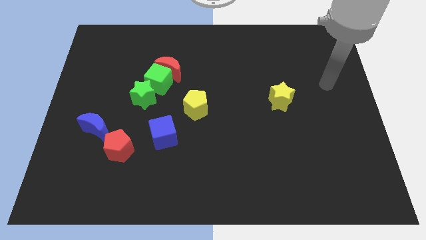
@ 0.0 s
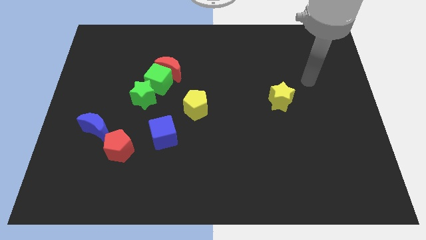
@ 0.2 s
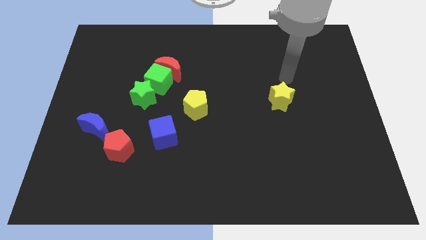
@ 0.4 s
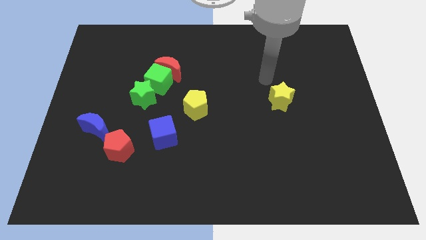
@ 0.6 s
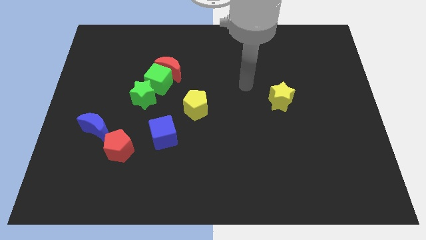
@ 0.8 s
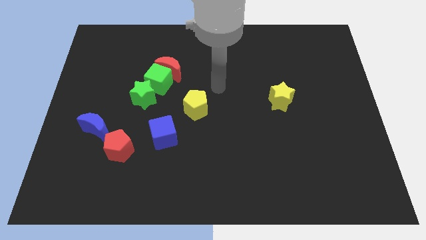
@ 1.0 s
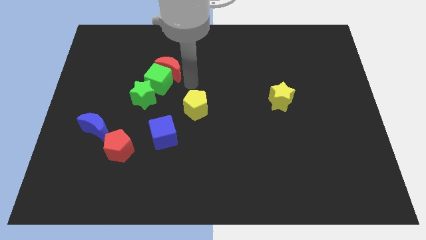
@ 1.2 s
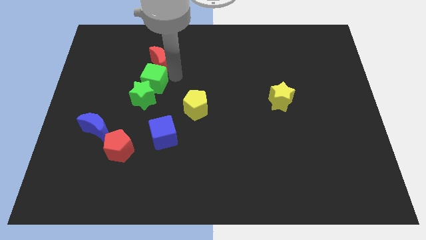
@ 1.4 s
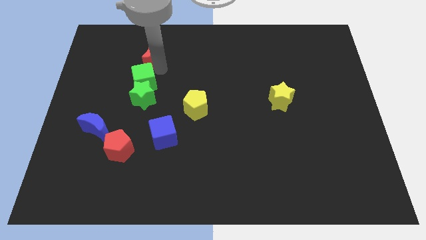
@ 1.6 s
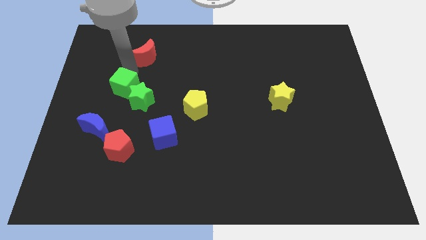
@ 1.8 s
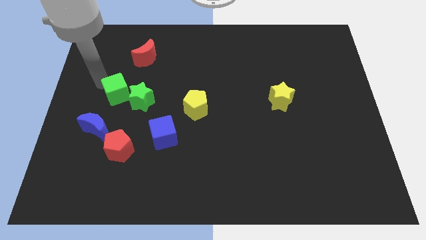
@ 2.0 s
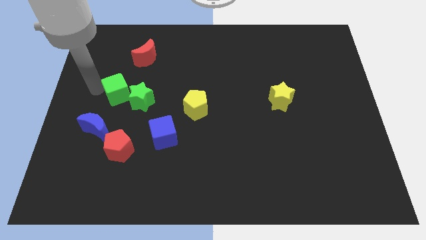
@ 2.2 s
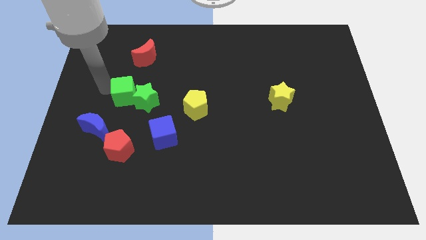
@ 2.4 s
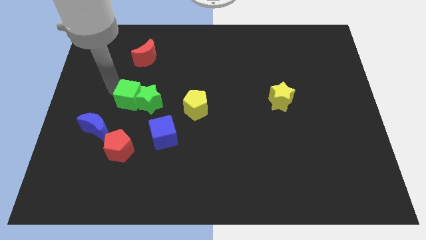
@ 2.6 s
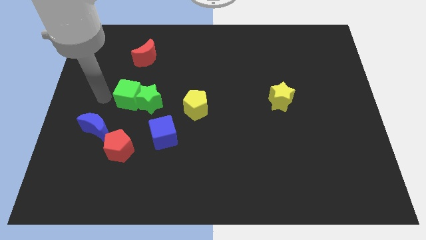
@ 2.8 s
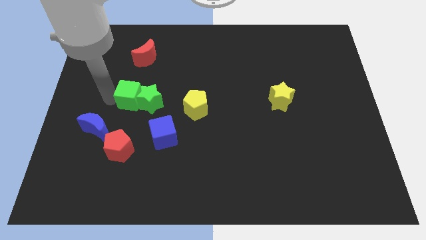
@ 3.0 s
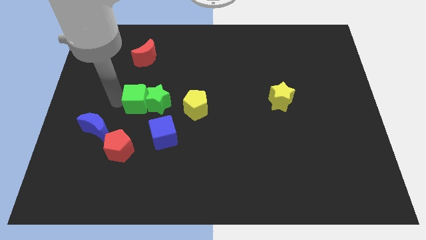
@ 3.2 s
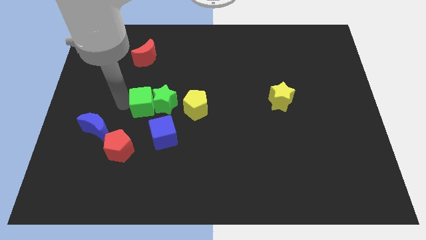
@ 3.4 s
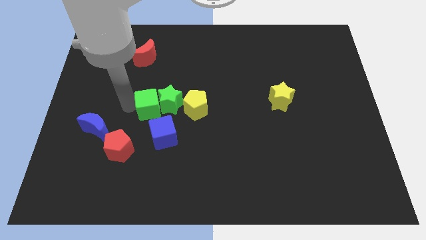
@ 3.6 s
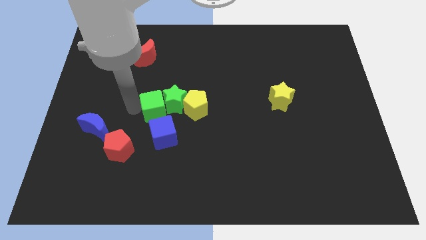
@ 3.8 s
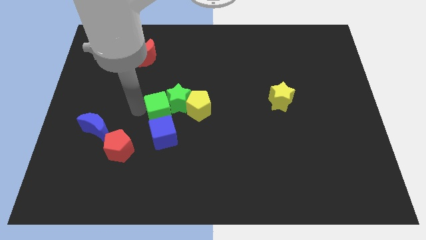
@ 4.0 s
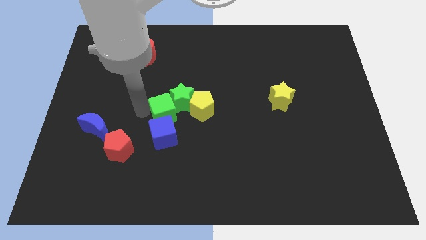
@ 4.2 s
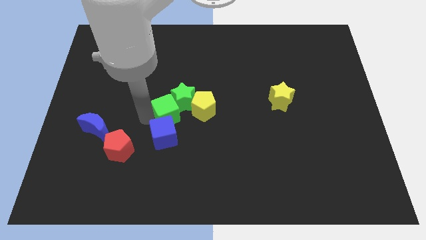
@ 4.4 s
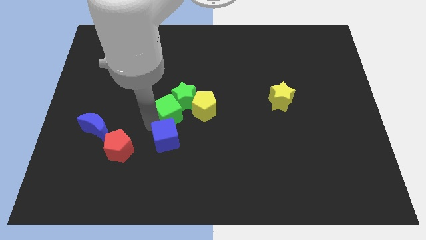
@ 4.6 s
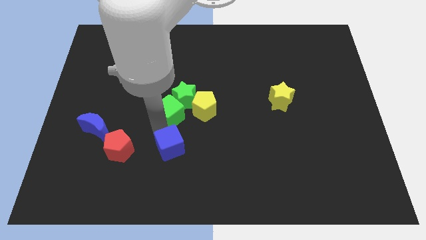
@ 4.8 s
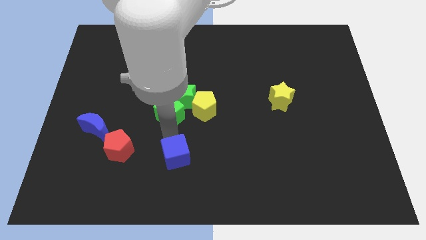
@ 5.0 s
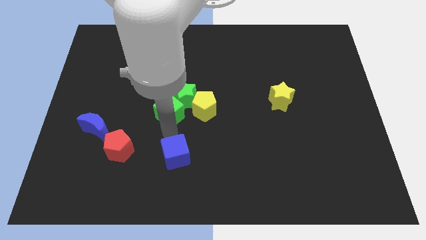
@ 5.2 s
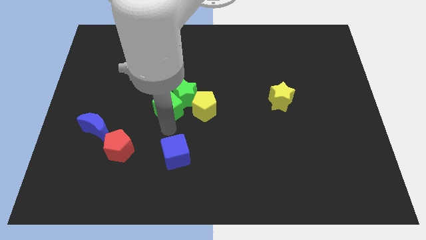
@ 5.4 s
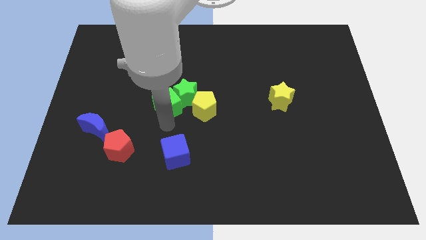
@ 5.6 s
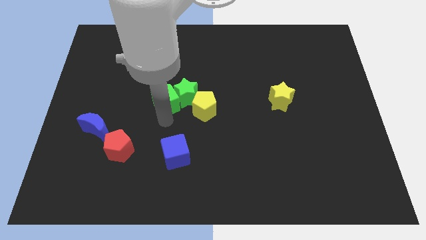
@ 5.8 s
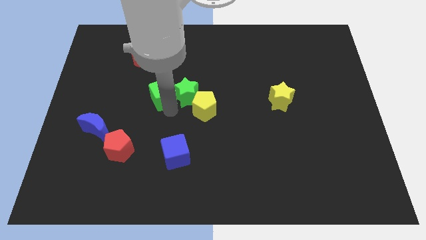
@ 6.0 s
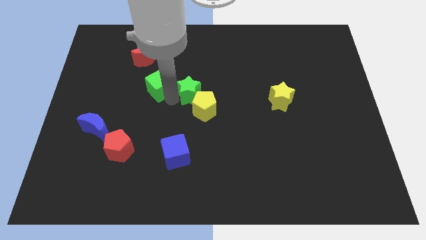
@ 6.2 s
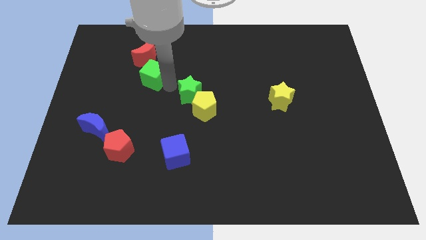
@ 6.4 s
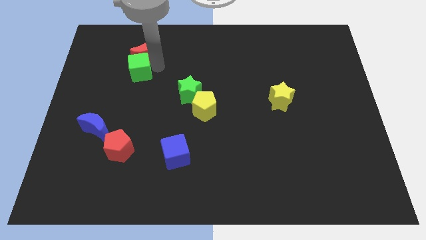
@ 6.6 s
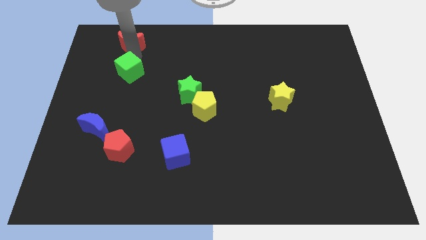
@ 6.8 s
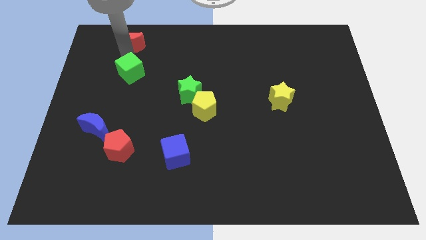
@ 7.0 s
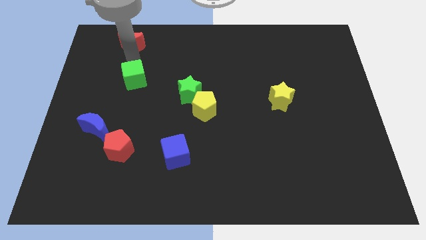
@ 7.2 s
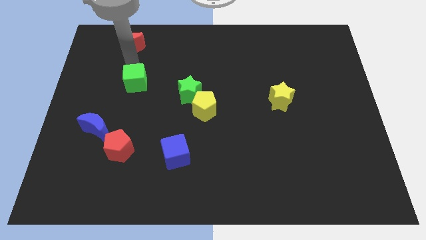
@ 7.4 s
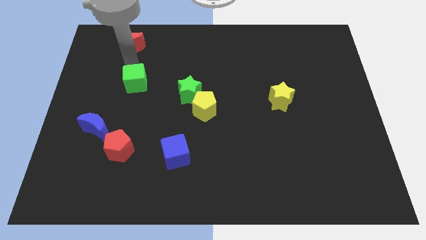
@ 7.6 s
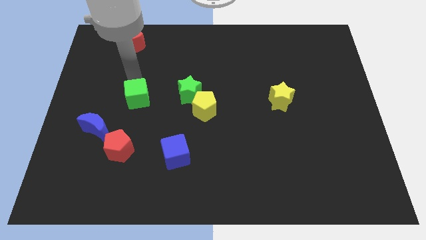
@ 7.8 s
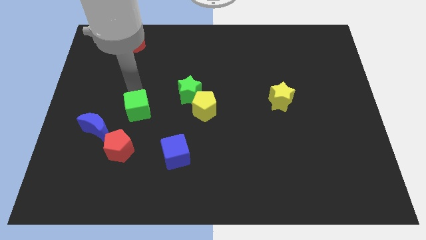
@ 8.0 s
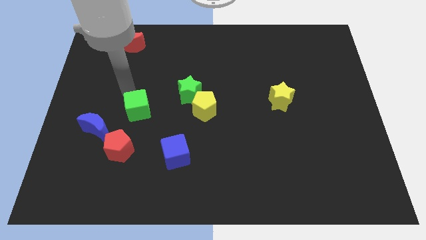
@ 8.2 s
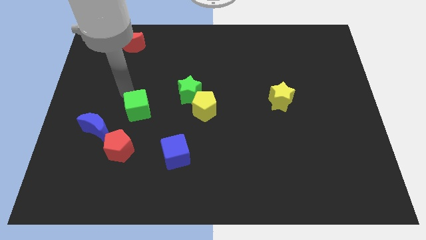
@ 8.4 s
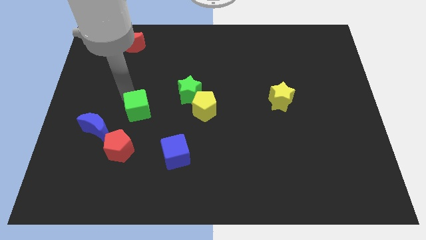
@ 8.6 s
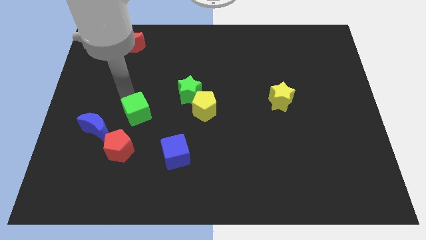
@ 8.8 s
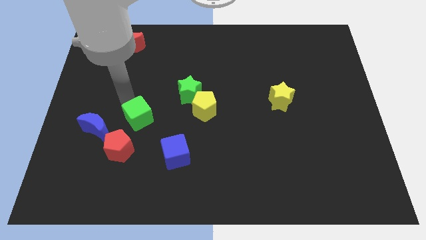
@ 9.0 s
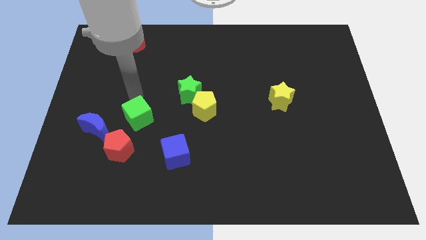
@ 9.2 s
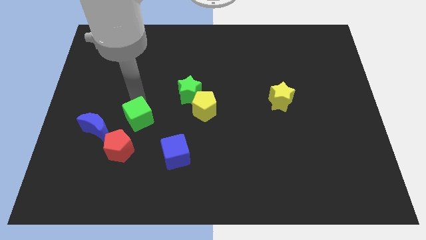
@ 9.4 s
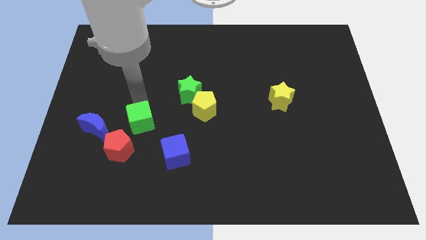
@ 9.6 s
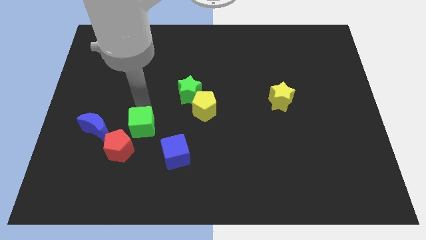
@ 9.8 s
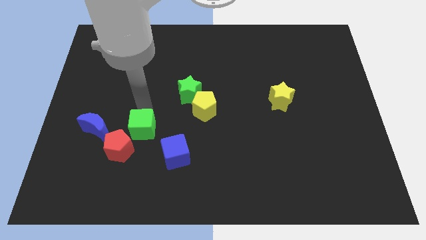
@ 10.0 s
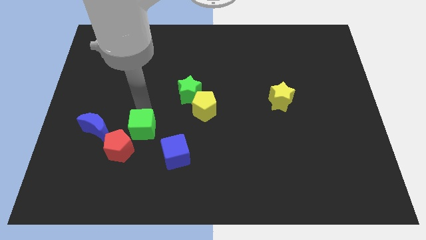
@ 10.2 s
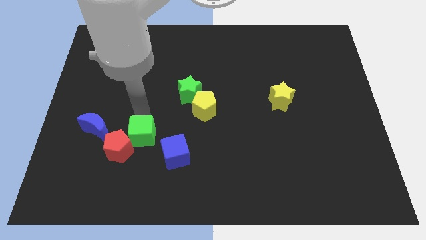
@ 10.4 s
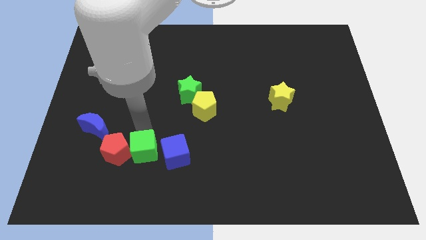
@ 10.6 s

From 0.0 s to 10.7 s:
put the green cube to the bottom right of the red pentagon

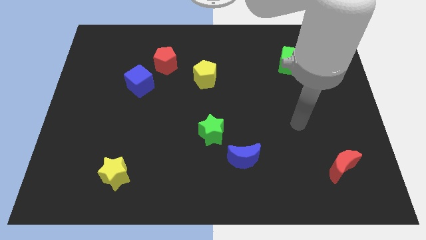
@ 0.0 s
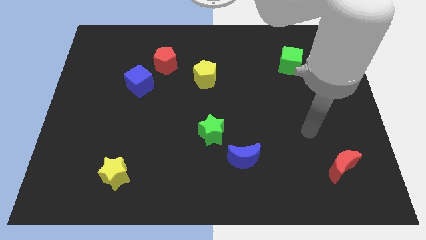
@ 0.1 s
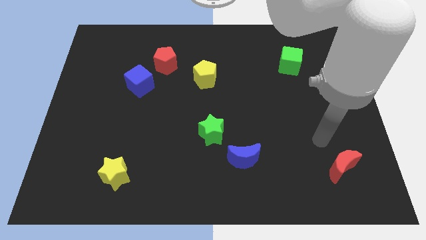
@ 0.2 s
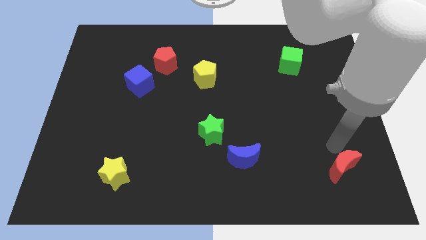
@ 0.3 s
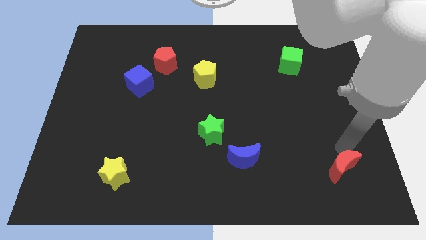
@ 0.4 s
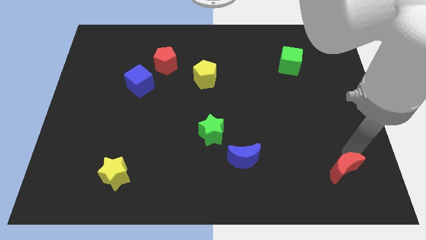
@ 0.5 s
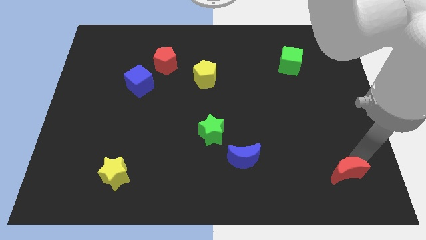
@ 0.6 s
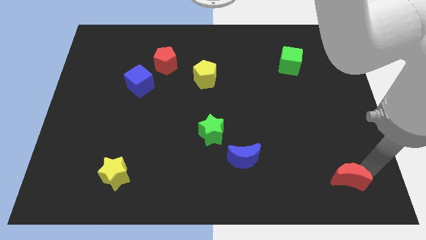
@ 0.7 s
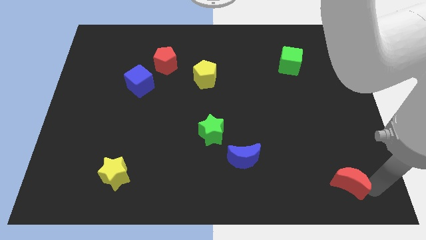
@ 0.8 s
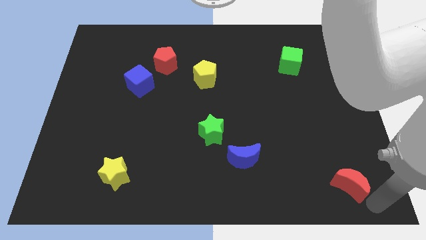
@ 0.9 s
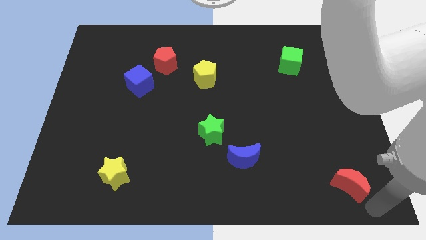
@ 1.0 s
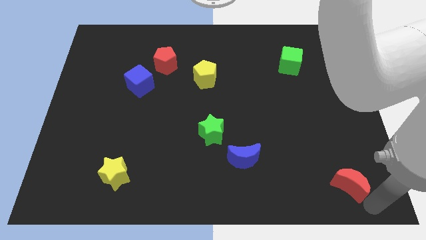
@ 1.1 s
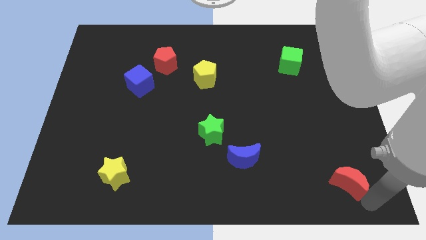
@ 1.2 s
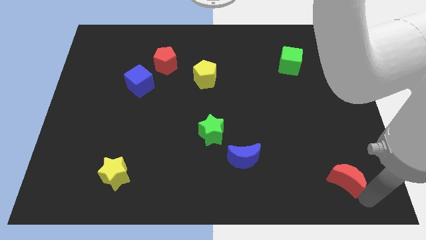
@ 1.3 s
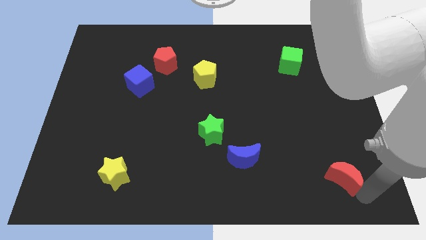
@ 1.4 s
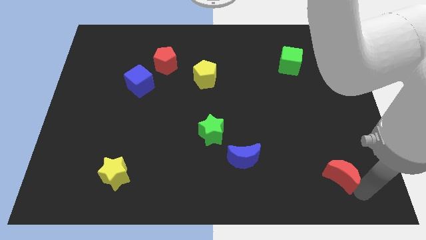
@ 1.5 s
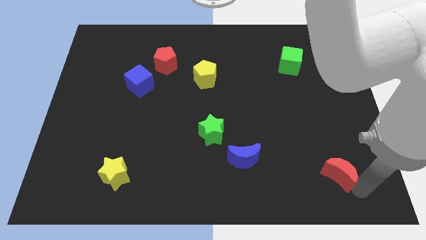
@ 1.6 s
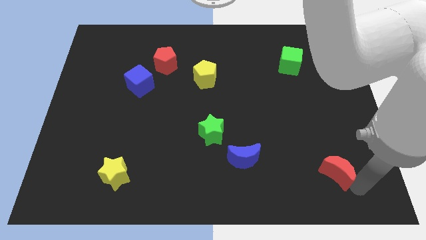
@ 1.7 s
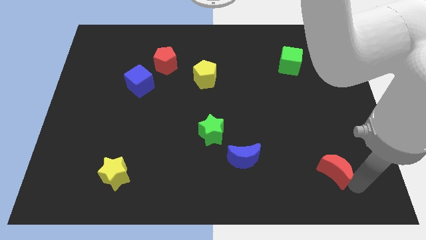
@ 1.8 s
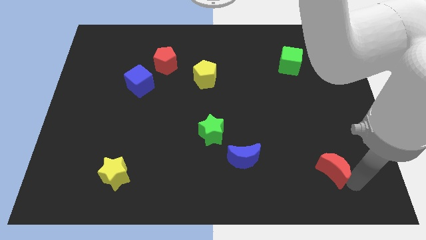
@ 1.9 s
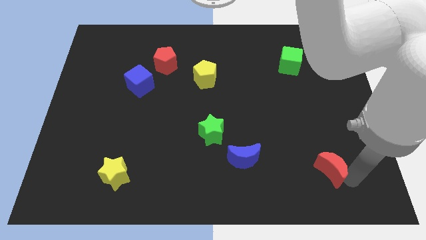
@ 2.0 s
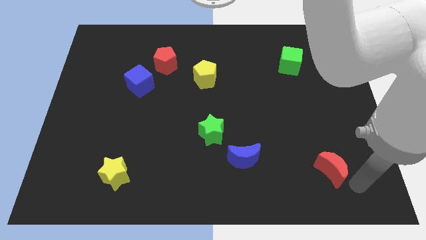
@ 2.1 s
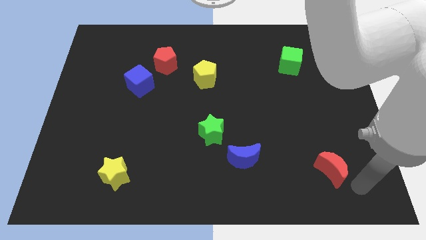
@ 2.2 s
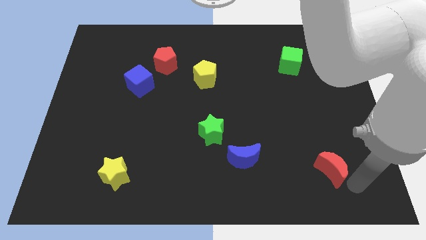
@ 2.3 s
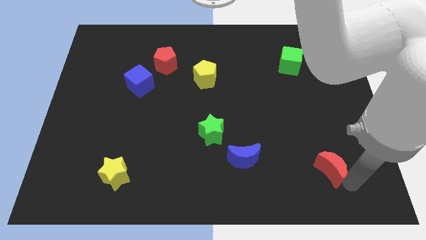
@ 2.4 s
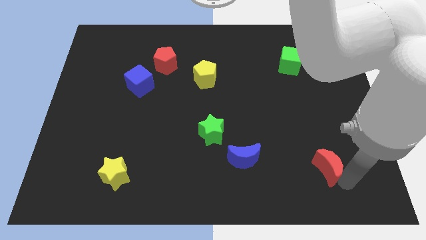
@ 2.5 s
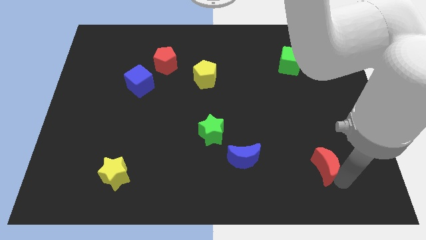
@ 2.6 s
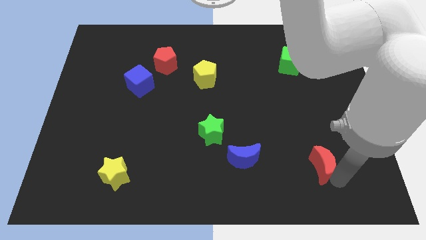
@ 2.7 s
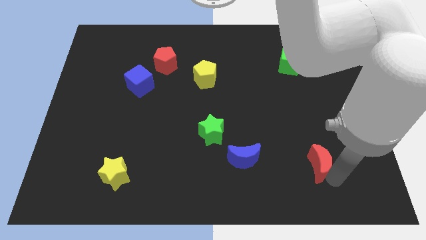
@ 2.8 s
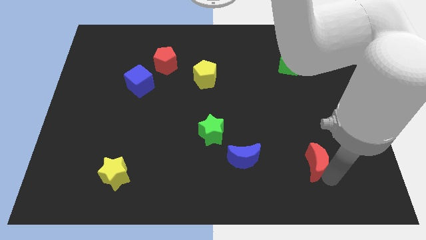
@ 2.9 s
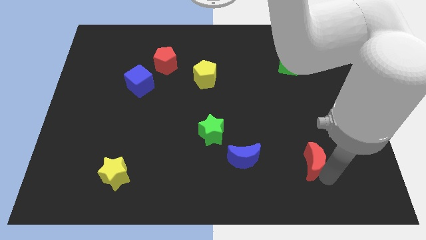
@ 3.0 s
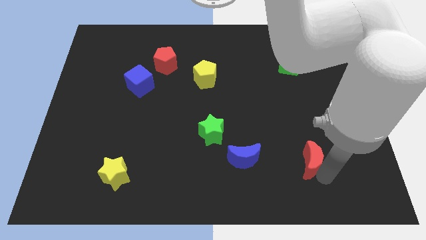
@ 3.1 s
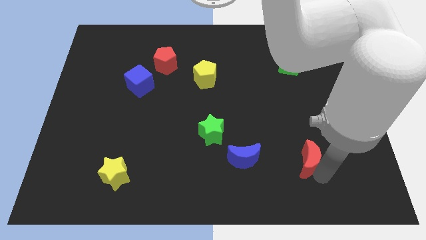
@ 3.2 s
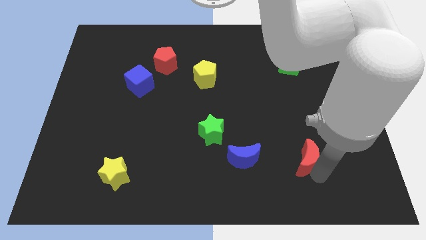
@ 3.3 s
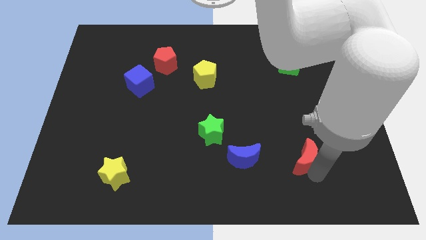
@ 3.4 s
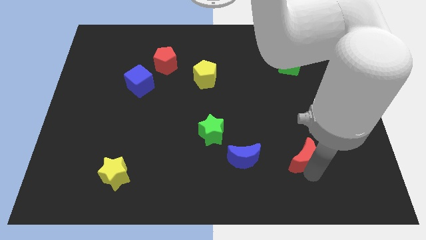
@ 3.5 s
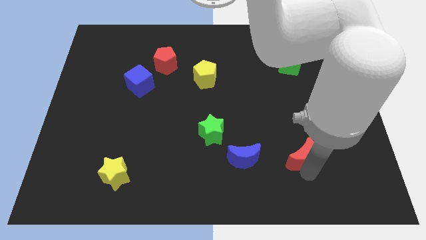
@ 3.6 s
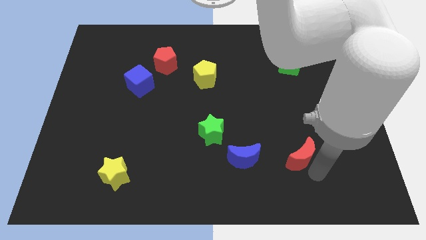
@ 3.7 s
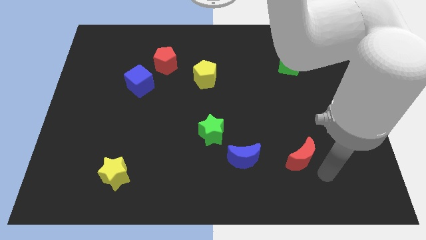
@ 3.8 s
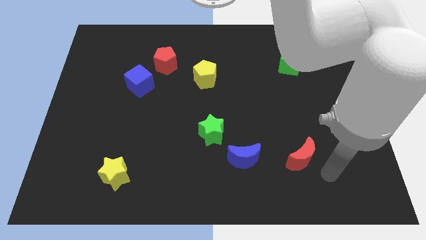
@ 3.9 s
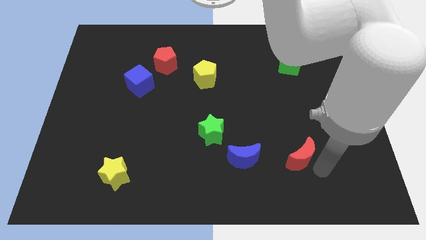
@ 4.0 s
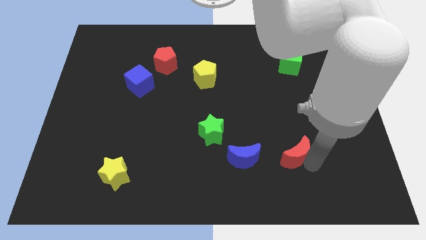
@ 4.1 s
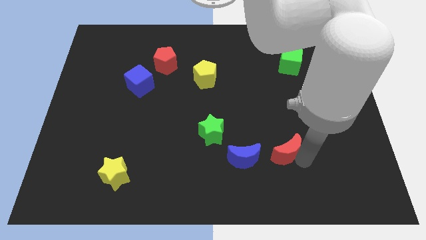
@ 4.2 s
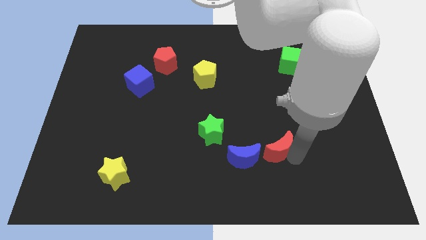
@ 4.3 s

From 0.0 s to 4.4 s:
move the red moon to the top right of the blue moon
